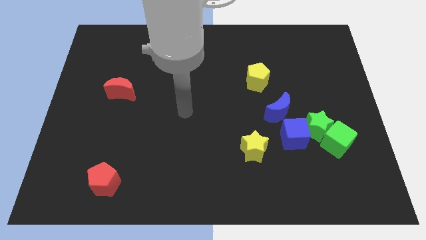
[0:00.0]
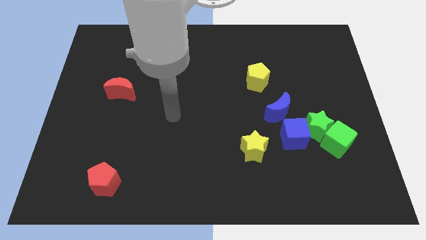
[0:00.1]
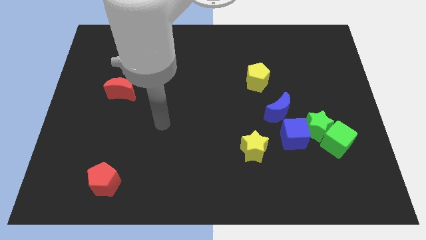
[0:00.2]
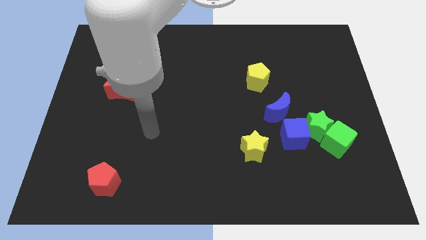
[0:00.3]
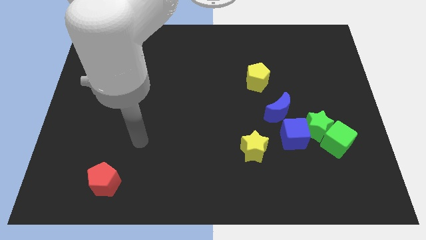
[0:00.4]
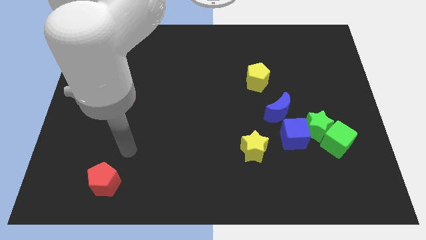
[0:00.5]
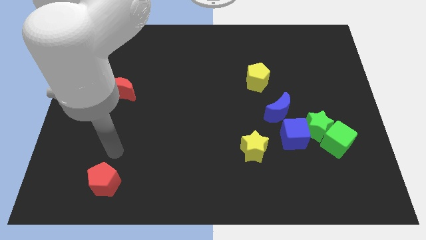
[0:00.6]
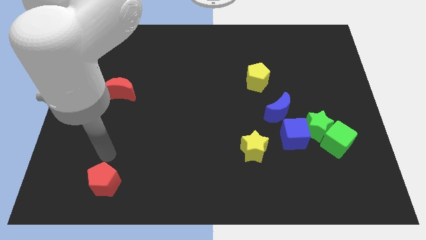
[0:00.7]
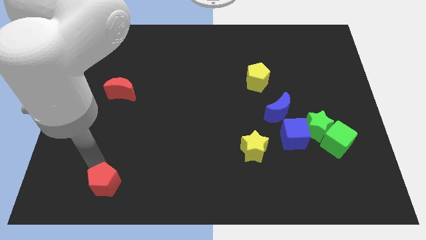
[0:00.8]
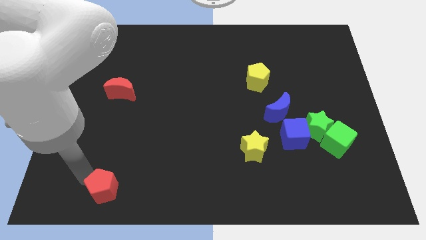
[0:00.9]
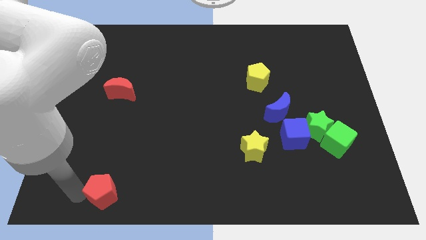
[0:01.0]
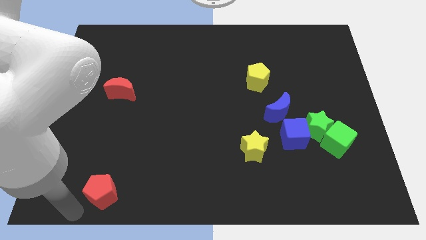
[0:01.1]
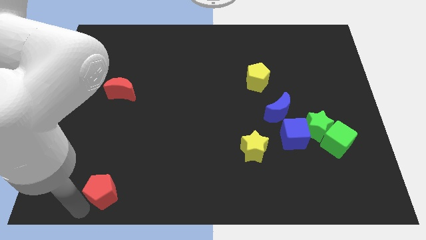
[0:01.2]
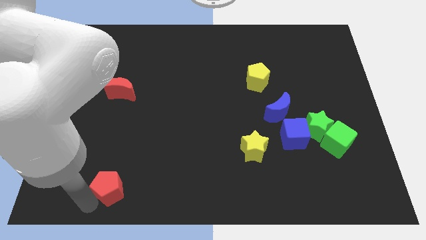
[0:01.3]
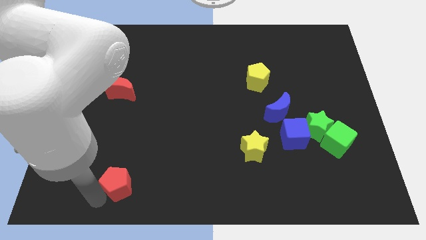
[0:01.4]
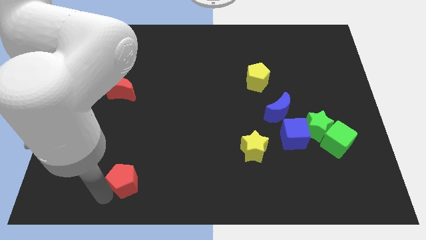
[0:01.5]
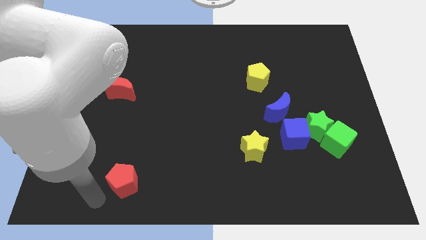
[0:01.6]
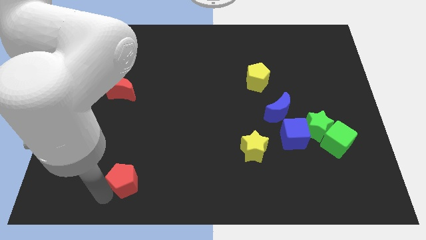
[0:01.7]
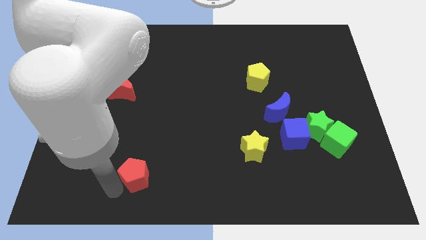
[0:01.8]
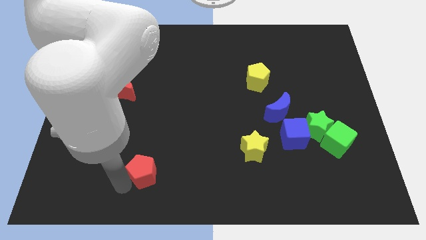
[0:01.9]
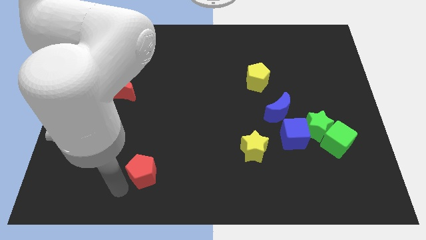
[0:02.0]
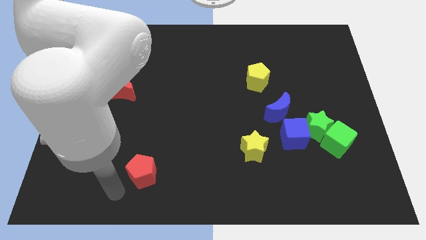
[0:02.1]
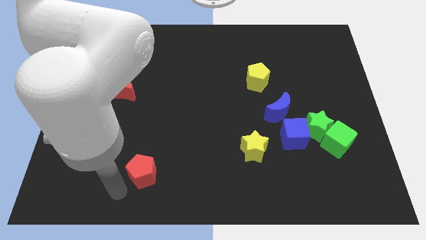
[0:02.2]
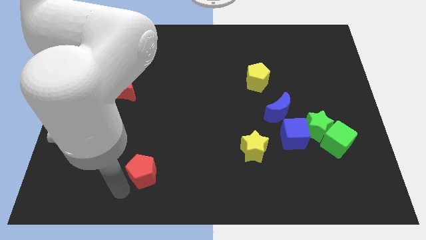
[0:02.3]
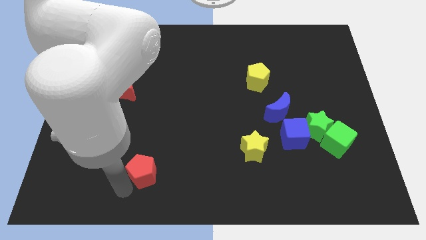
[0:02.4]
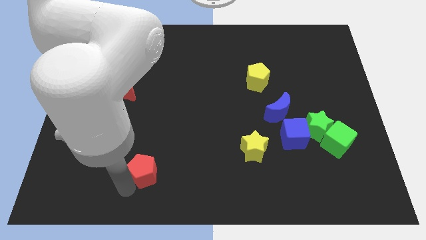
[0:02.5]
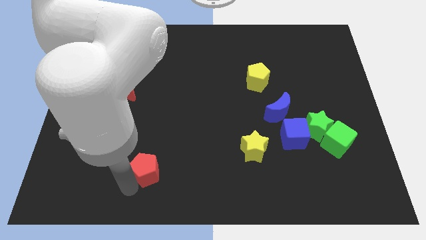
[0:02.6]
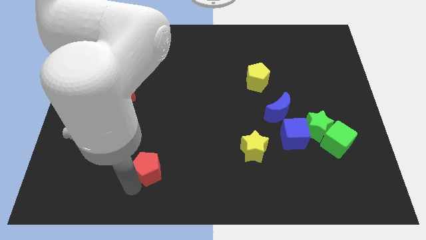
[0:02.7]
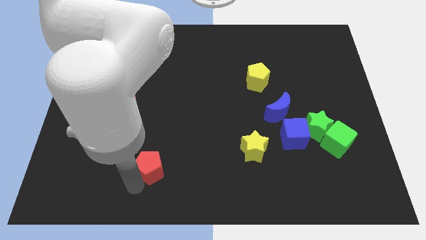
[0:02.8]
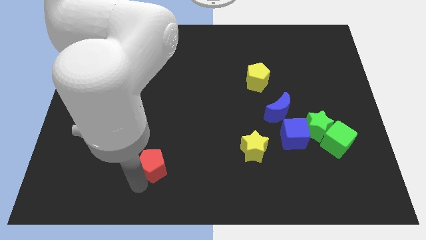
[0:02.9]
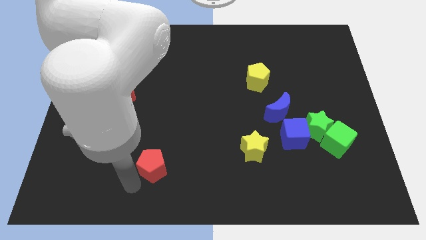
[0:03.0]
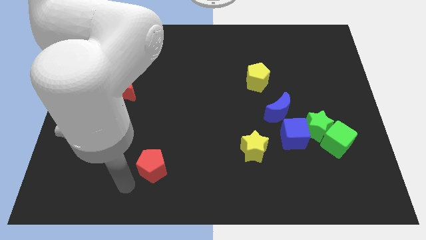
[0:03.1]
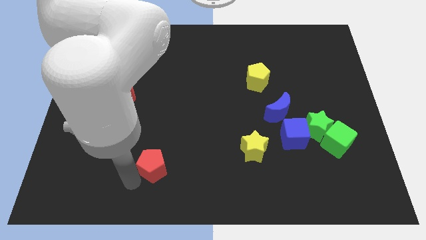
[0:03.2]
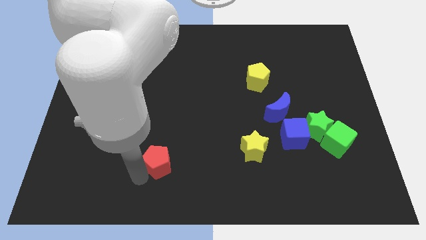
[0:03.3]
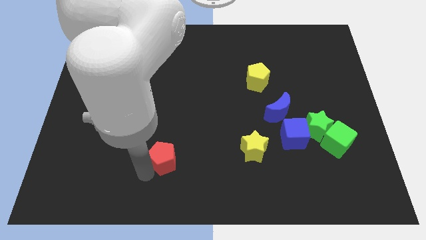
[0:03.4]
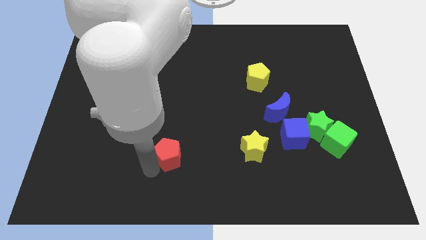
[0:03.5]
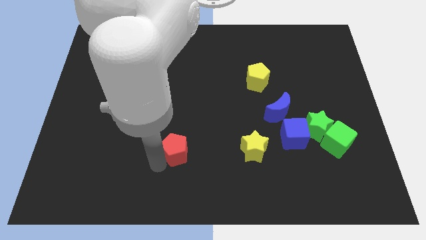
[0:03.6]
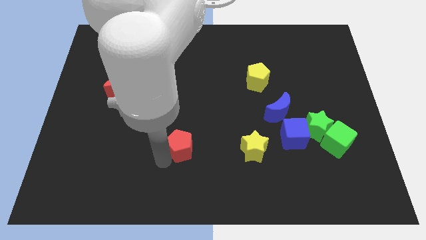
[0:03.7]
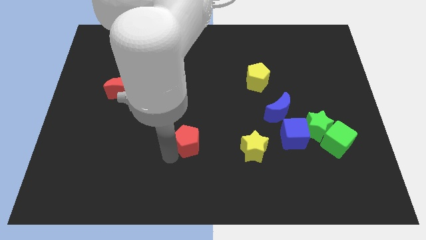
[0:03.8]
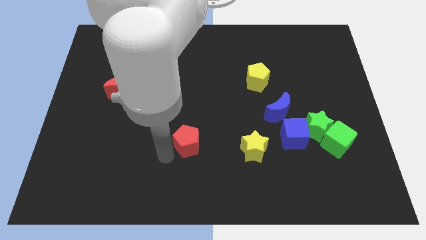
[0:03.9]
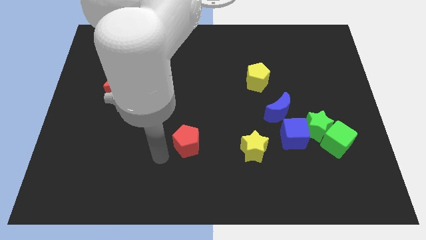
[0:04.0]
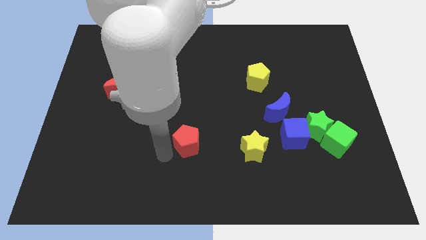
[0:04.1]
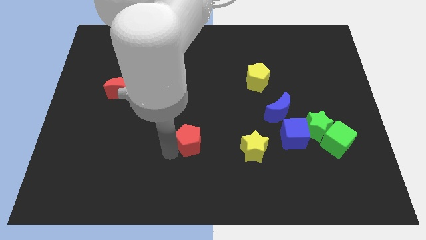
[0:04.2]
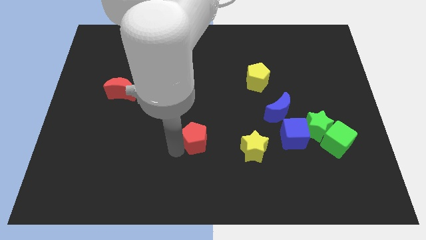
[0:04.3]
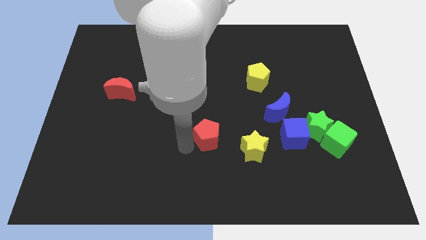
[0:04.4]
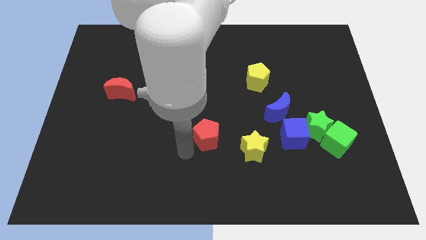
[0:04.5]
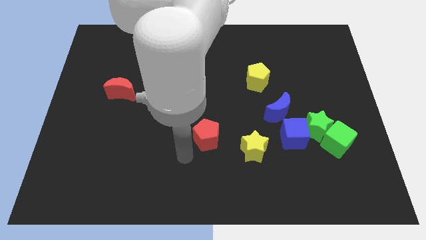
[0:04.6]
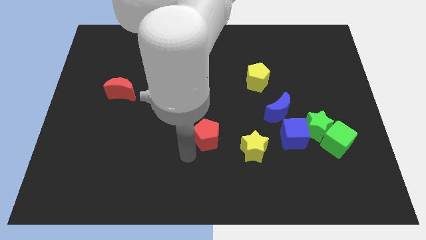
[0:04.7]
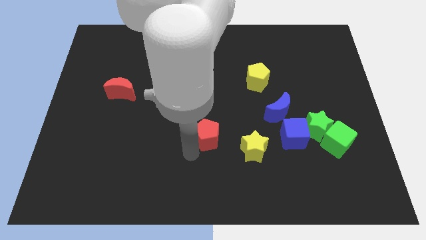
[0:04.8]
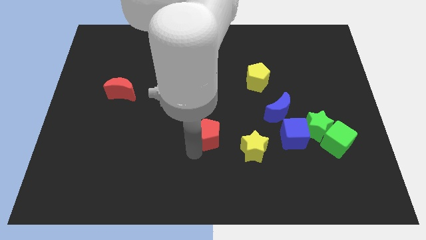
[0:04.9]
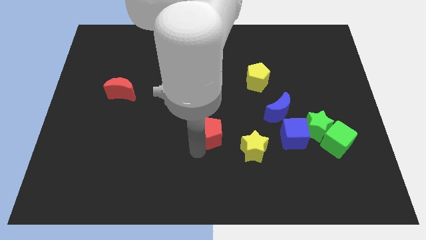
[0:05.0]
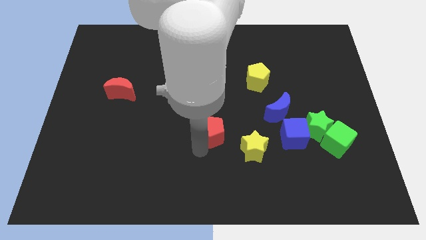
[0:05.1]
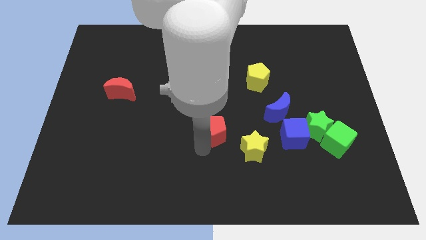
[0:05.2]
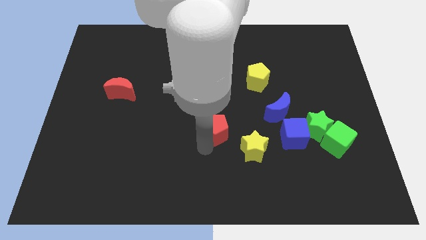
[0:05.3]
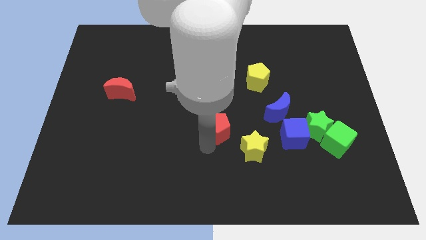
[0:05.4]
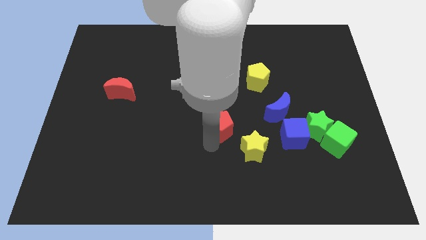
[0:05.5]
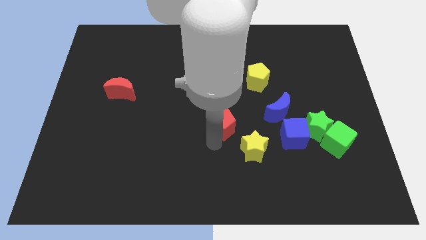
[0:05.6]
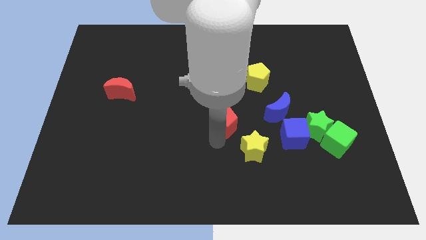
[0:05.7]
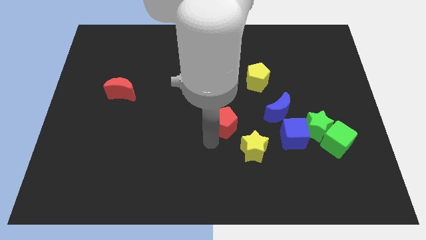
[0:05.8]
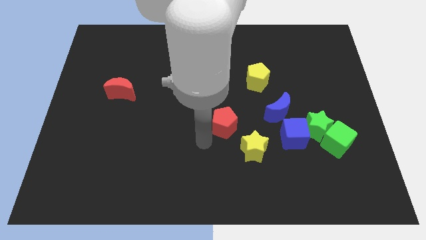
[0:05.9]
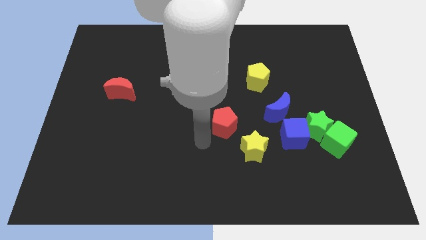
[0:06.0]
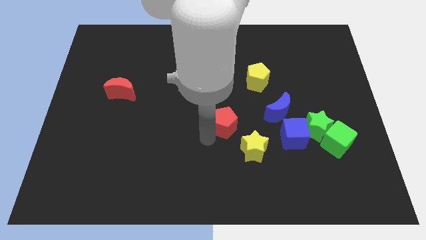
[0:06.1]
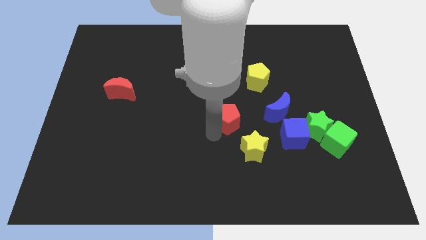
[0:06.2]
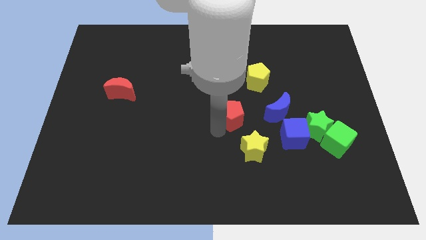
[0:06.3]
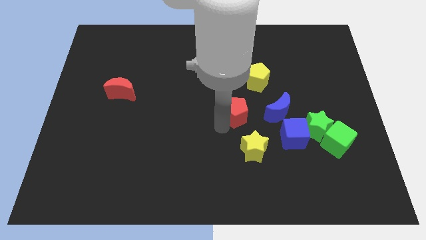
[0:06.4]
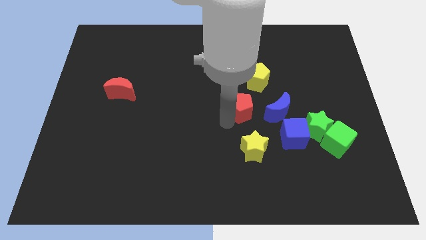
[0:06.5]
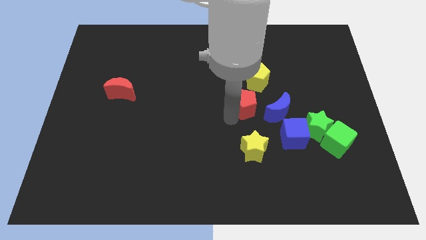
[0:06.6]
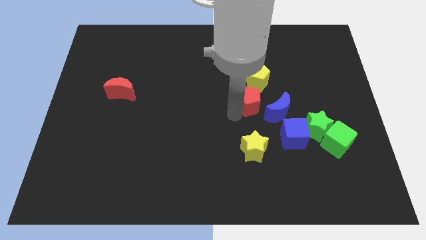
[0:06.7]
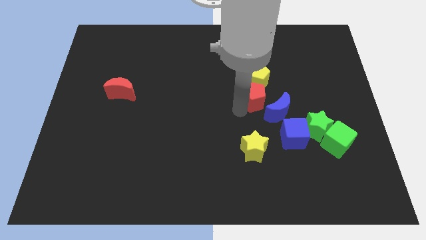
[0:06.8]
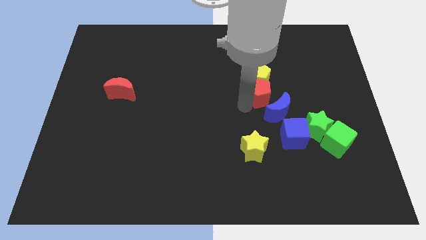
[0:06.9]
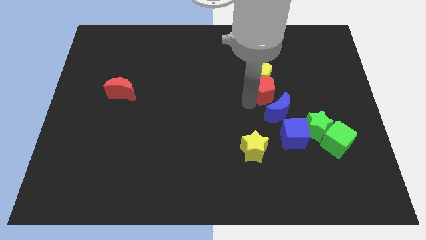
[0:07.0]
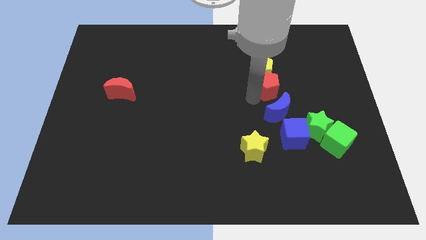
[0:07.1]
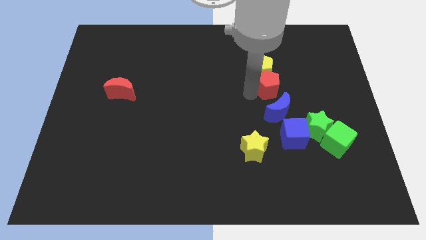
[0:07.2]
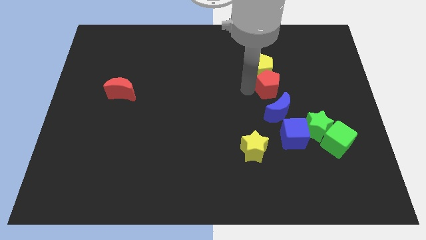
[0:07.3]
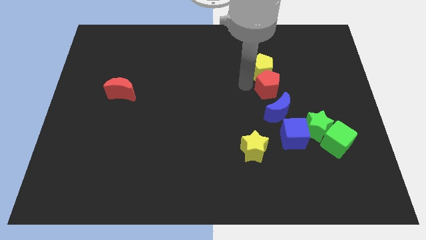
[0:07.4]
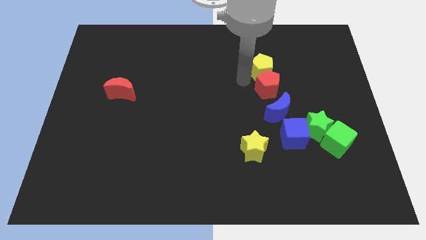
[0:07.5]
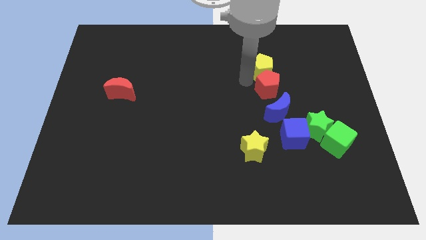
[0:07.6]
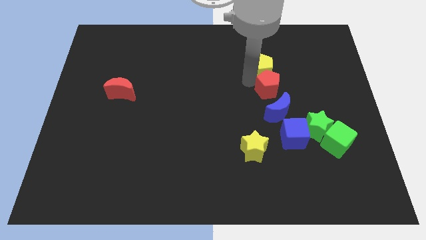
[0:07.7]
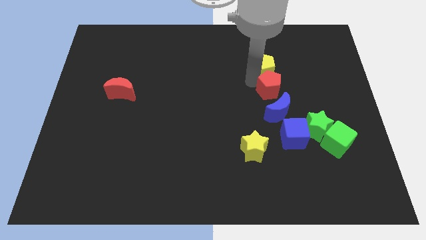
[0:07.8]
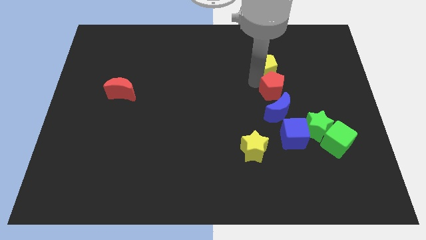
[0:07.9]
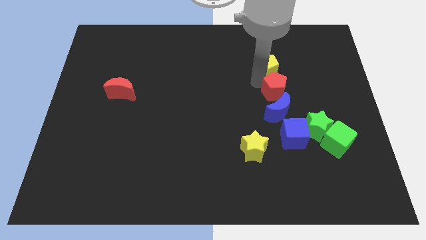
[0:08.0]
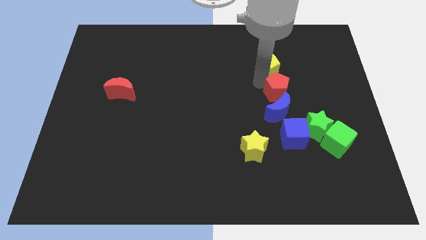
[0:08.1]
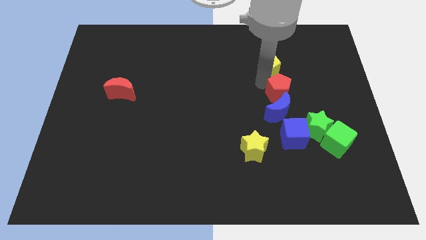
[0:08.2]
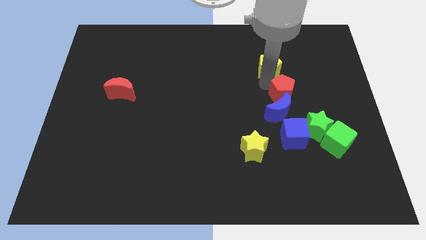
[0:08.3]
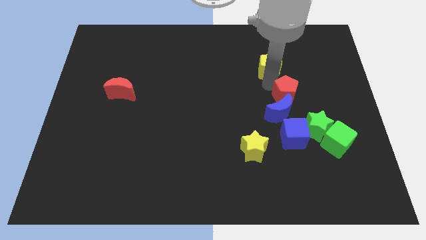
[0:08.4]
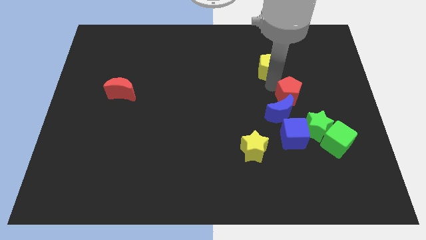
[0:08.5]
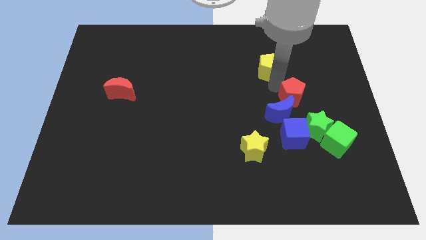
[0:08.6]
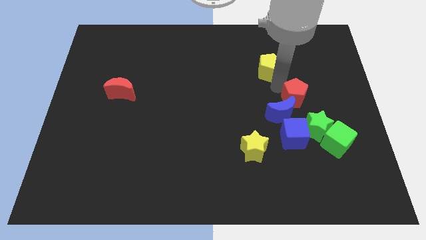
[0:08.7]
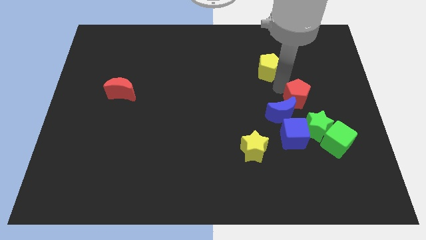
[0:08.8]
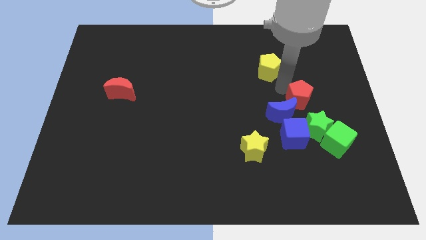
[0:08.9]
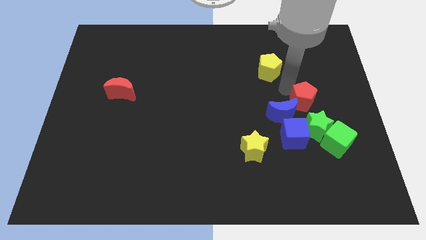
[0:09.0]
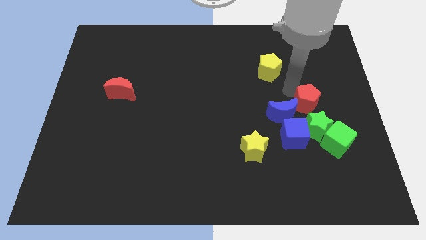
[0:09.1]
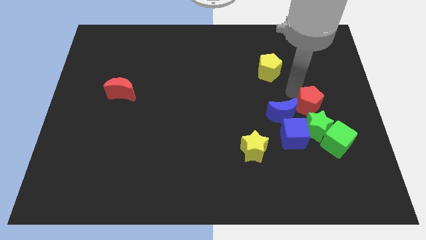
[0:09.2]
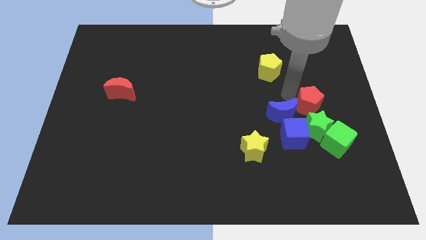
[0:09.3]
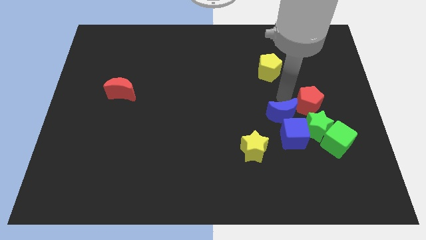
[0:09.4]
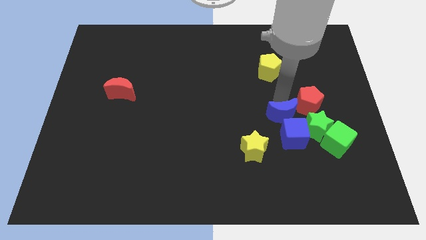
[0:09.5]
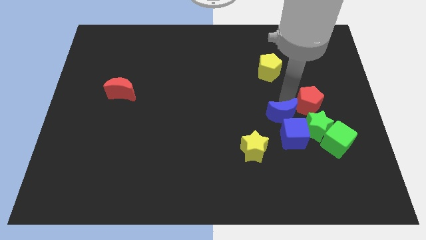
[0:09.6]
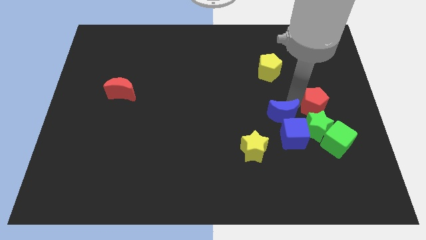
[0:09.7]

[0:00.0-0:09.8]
put the red pentagon to the top right of the green star
